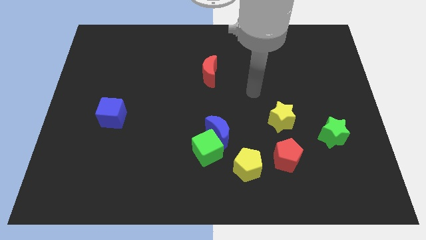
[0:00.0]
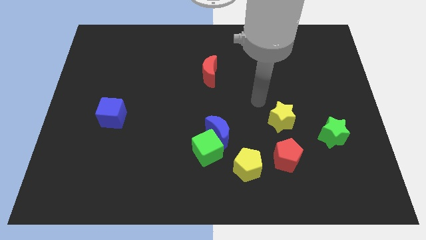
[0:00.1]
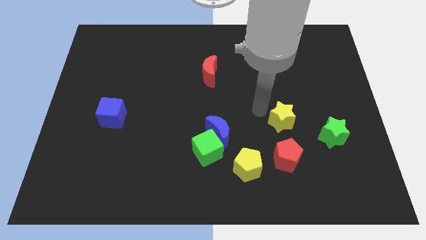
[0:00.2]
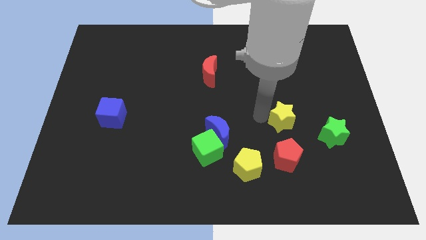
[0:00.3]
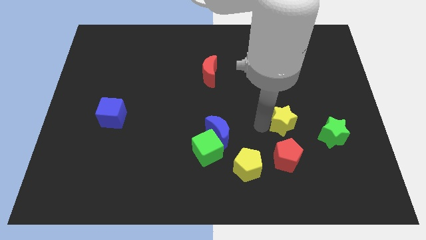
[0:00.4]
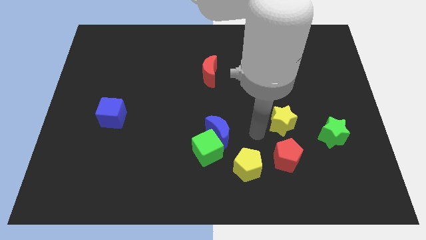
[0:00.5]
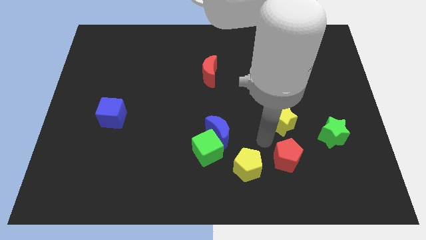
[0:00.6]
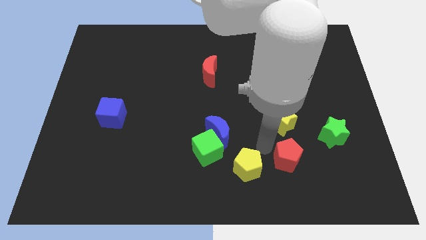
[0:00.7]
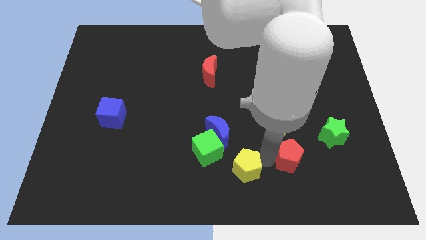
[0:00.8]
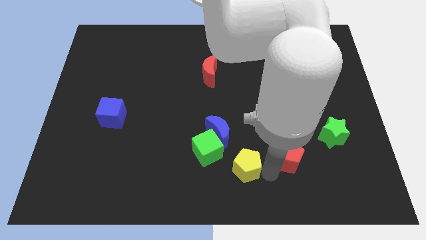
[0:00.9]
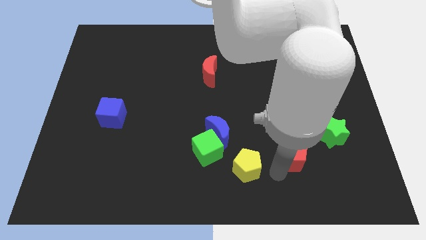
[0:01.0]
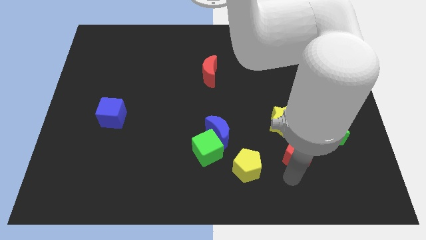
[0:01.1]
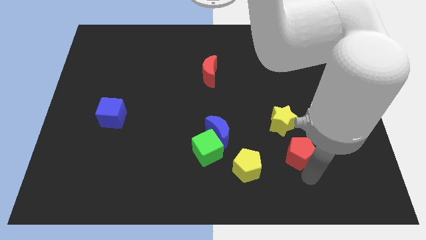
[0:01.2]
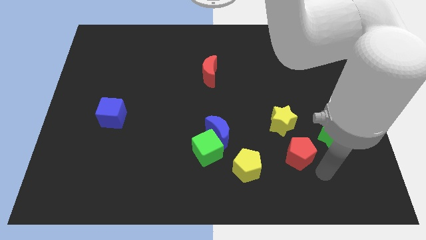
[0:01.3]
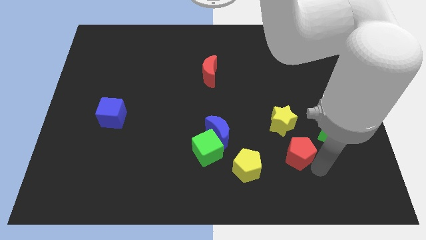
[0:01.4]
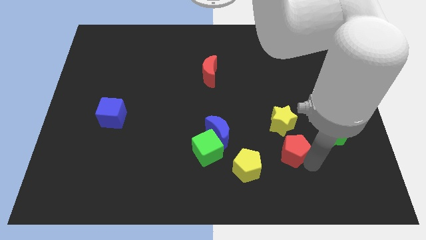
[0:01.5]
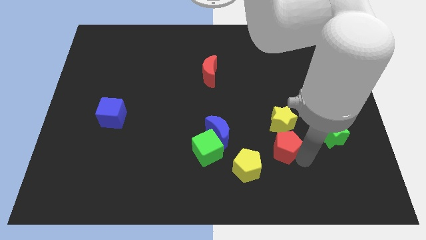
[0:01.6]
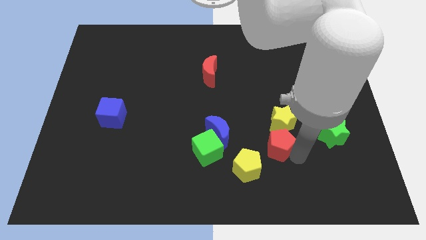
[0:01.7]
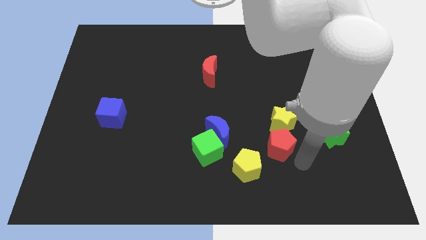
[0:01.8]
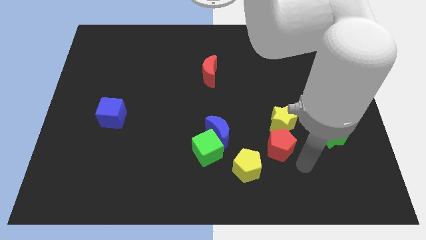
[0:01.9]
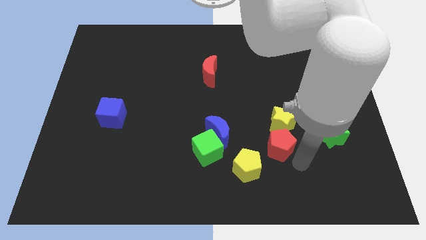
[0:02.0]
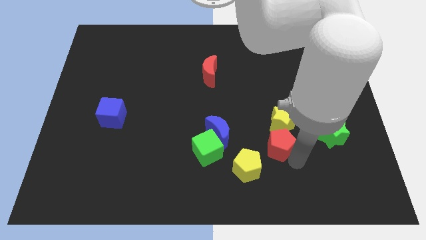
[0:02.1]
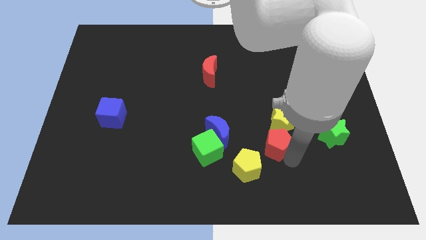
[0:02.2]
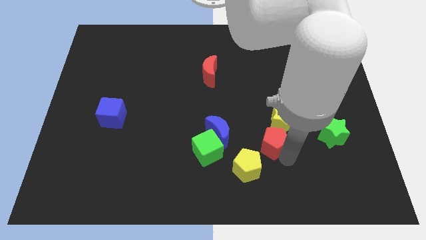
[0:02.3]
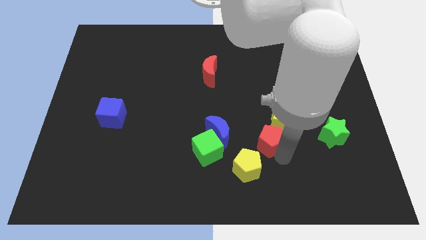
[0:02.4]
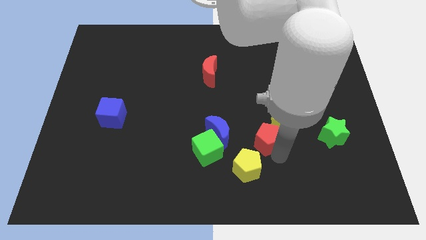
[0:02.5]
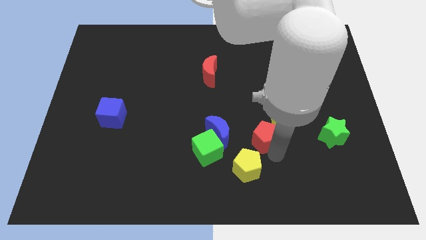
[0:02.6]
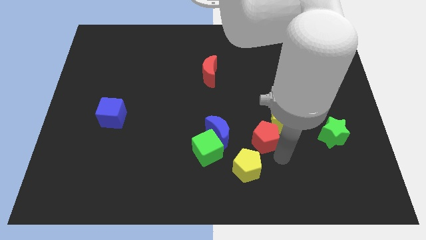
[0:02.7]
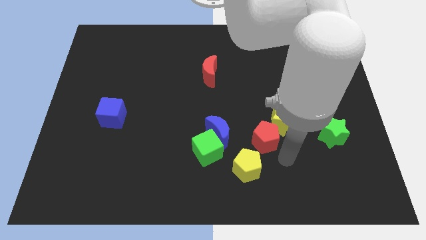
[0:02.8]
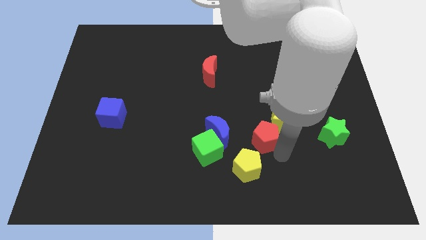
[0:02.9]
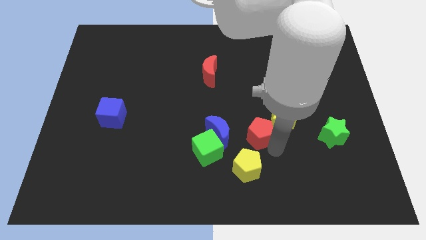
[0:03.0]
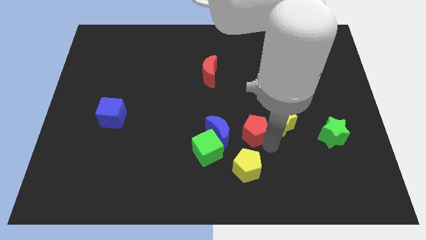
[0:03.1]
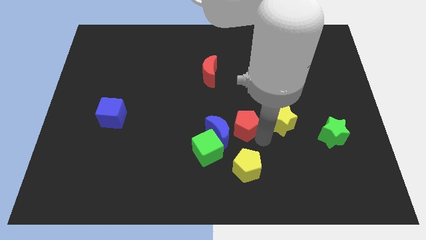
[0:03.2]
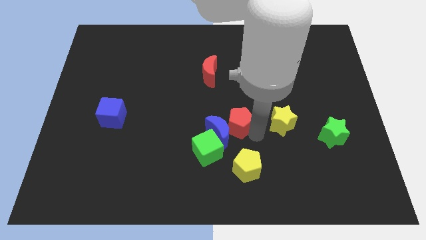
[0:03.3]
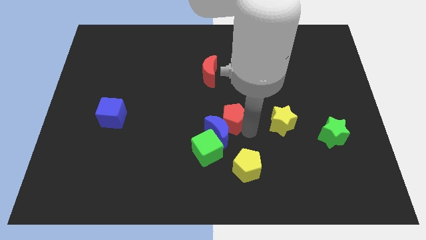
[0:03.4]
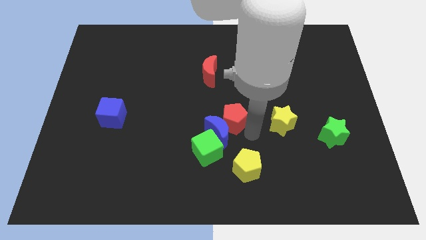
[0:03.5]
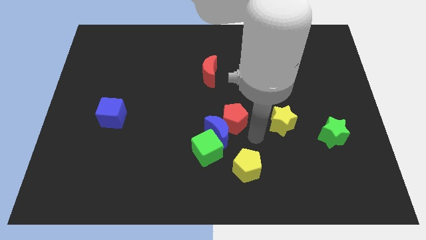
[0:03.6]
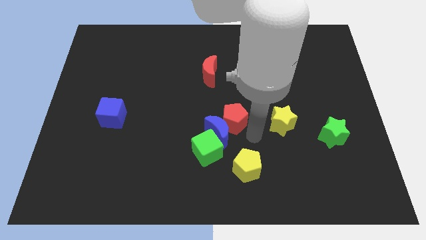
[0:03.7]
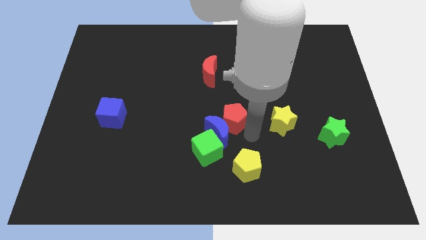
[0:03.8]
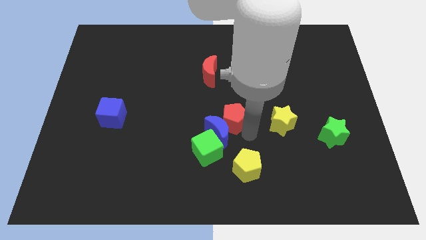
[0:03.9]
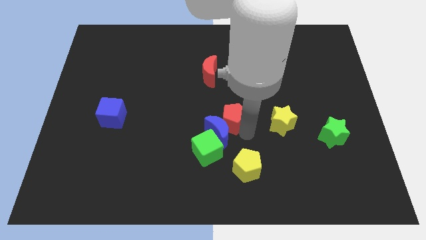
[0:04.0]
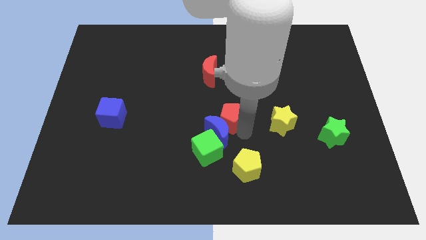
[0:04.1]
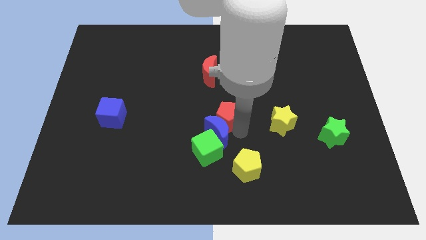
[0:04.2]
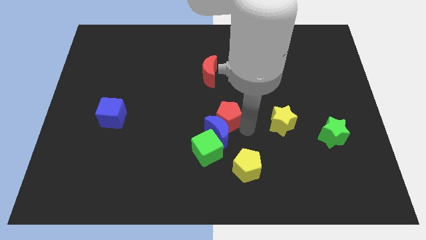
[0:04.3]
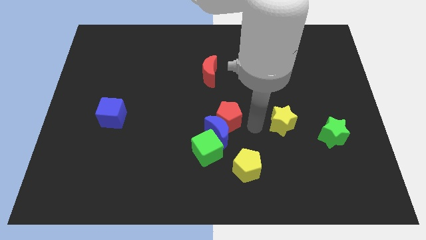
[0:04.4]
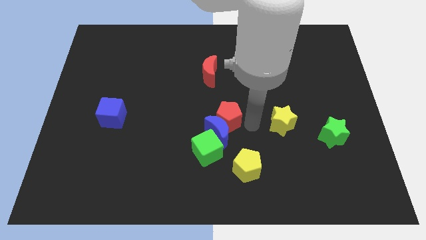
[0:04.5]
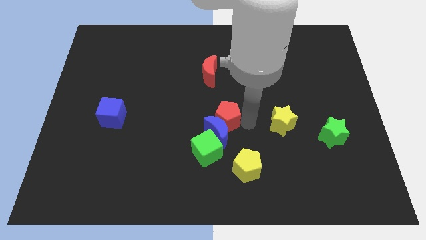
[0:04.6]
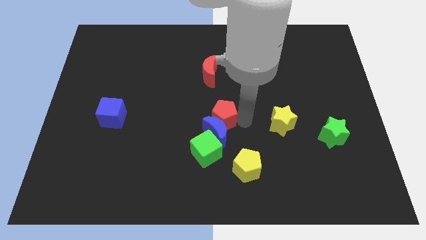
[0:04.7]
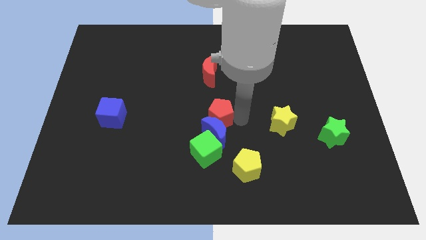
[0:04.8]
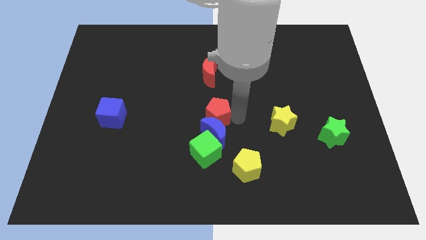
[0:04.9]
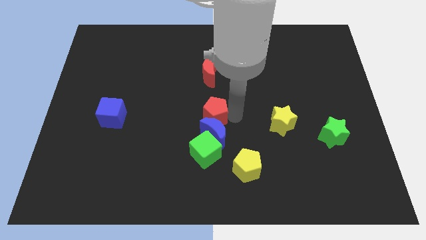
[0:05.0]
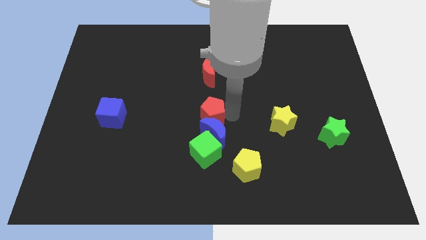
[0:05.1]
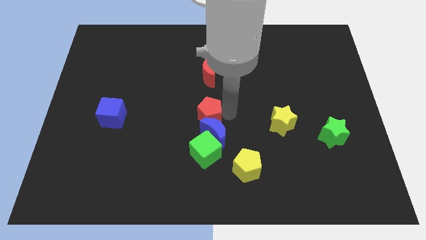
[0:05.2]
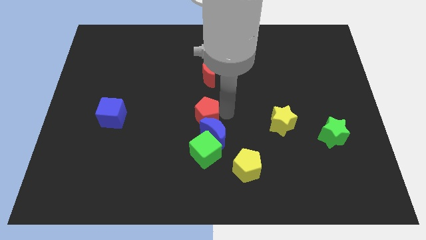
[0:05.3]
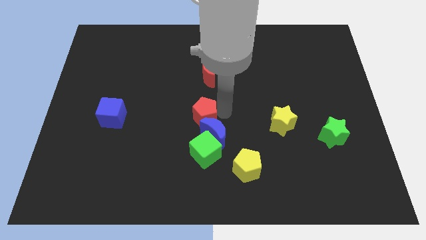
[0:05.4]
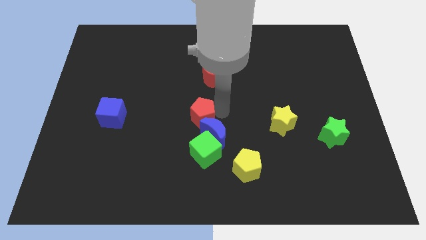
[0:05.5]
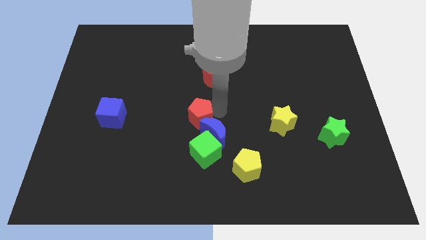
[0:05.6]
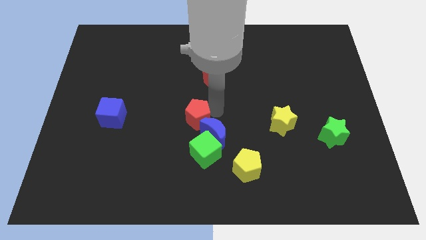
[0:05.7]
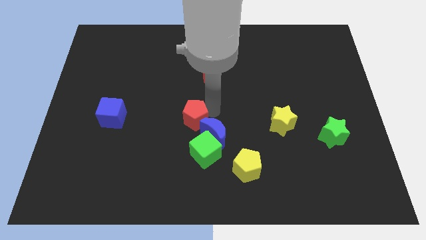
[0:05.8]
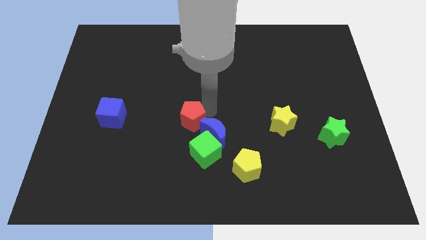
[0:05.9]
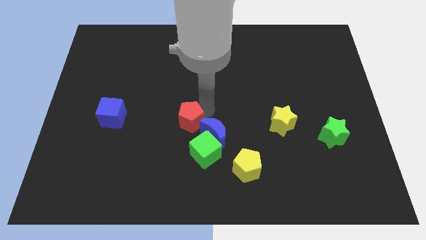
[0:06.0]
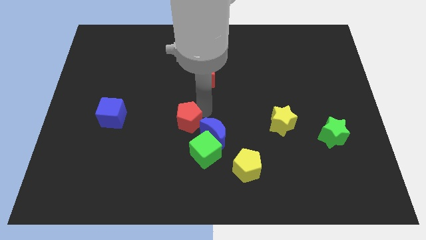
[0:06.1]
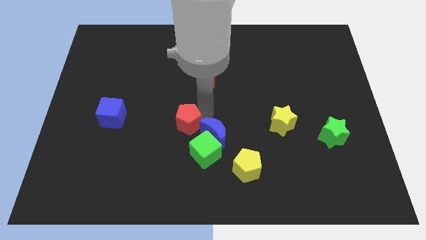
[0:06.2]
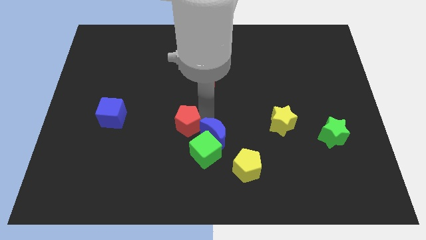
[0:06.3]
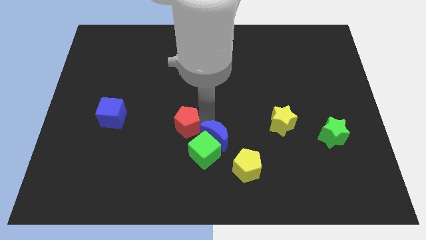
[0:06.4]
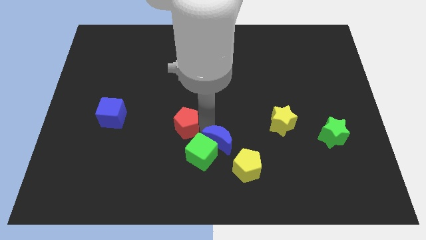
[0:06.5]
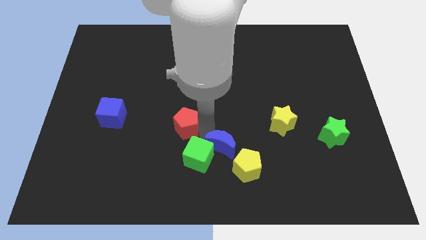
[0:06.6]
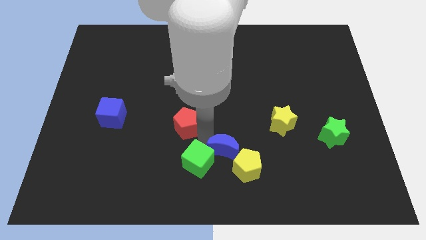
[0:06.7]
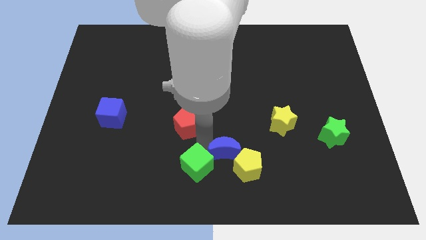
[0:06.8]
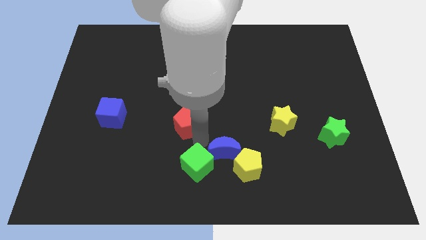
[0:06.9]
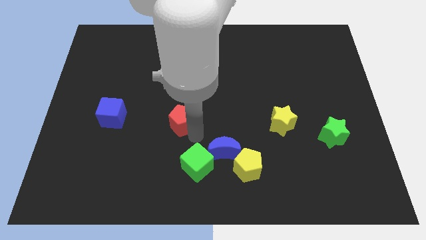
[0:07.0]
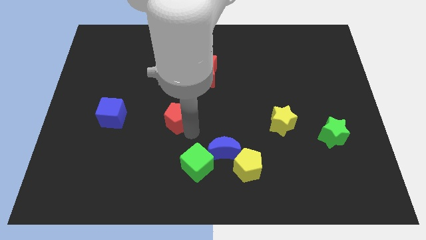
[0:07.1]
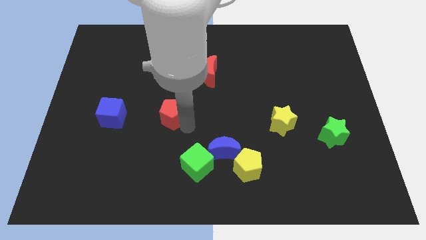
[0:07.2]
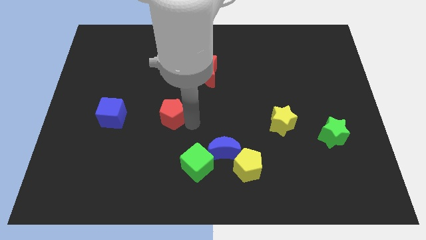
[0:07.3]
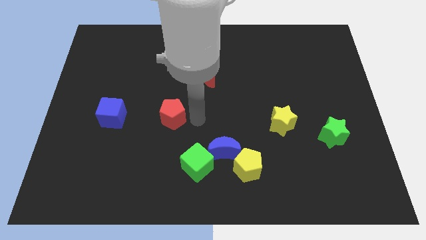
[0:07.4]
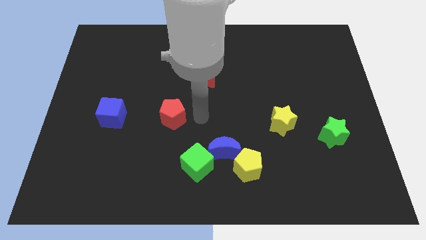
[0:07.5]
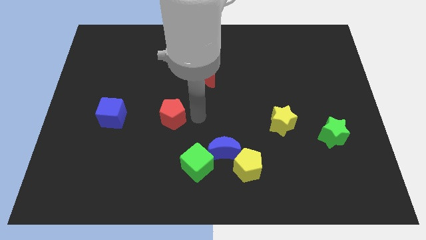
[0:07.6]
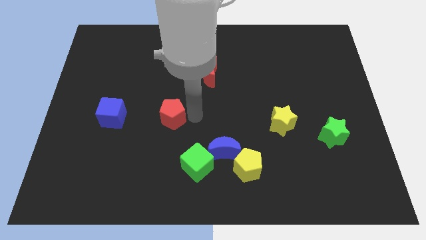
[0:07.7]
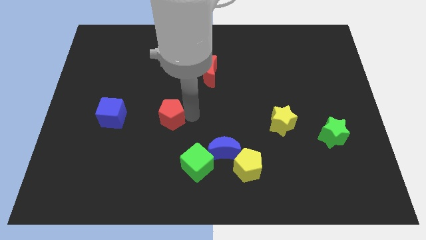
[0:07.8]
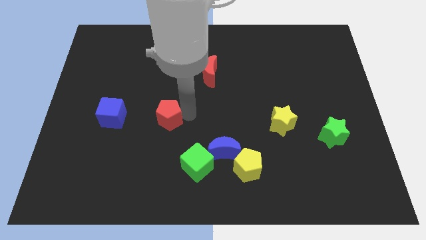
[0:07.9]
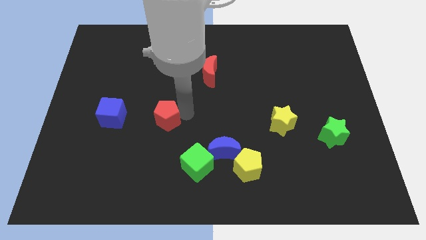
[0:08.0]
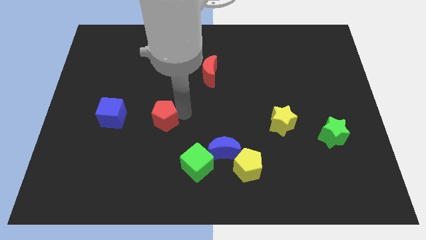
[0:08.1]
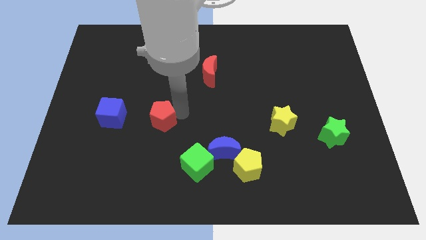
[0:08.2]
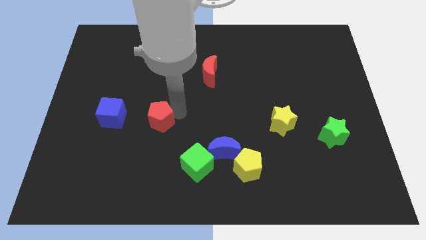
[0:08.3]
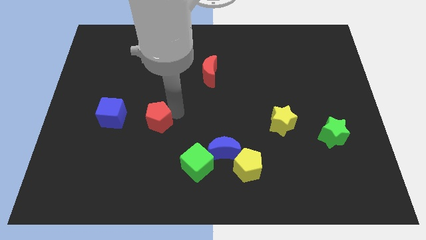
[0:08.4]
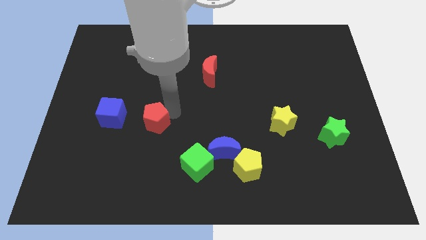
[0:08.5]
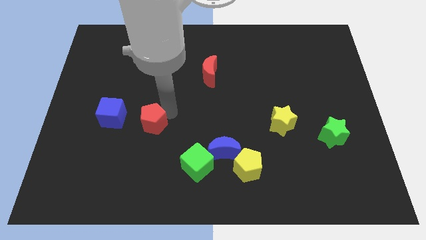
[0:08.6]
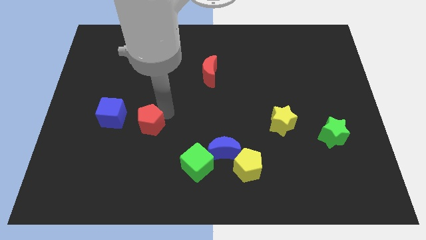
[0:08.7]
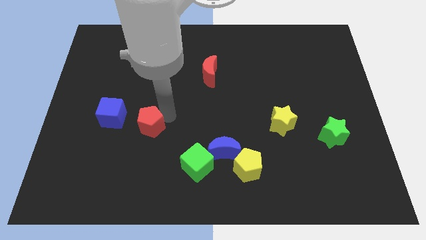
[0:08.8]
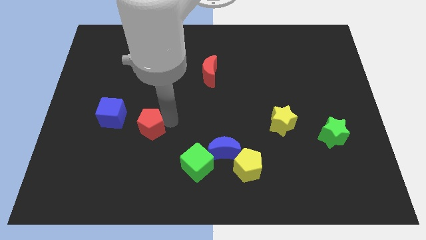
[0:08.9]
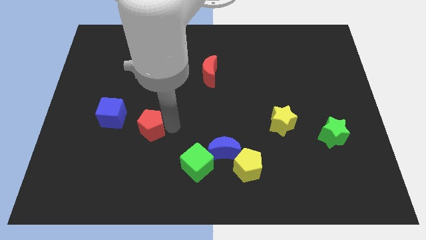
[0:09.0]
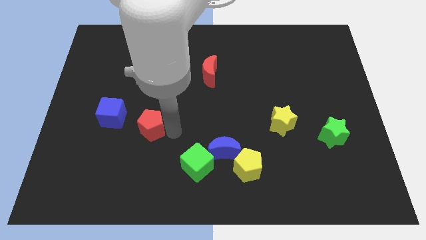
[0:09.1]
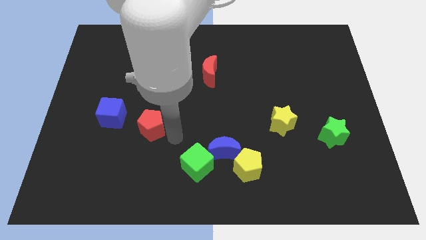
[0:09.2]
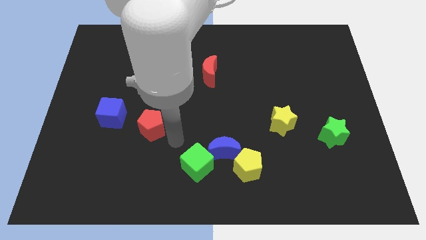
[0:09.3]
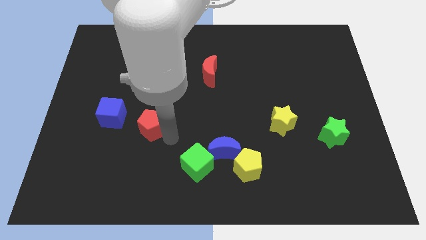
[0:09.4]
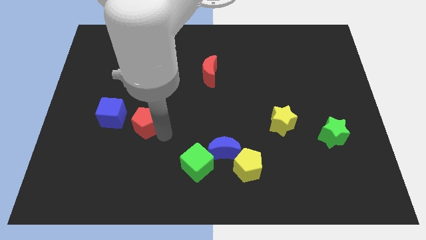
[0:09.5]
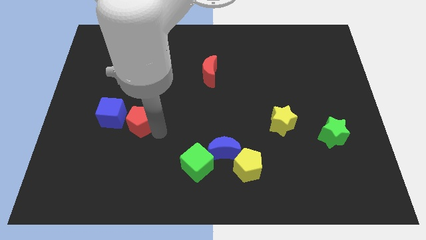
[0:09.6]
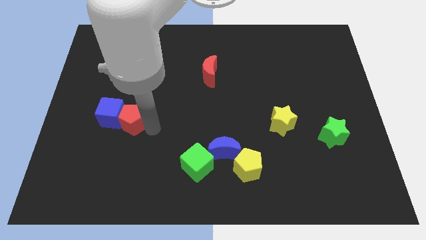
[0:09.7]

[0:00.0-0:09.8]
put the red pentagon towards the blue cube
